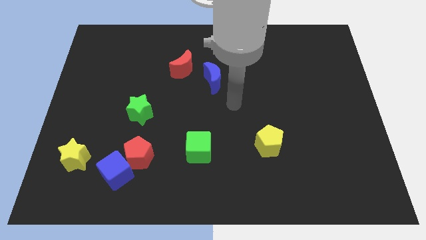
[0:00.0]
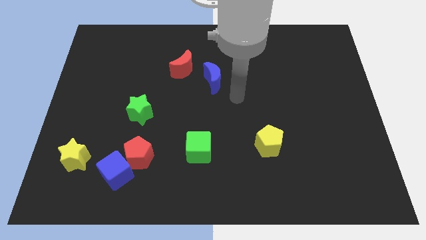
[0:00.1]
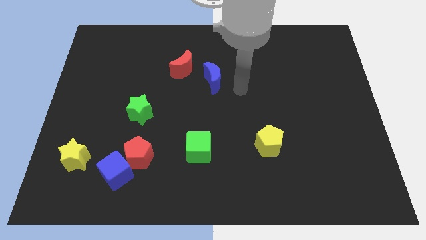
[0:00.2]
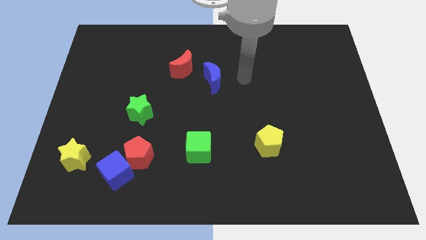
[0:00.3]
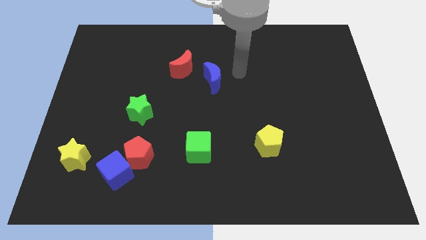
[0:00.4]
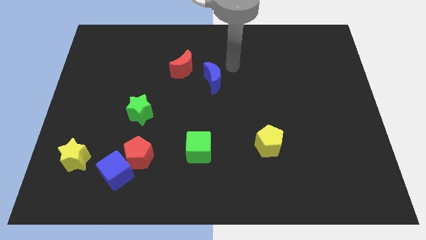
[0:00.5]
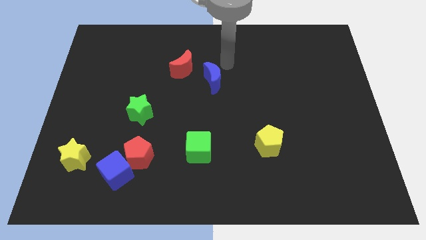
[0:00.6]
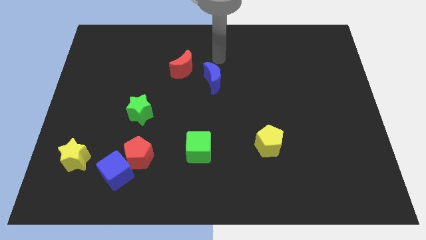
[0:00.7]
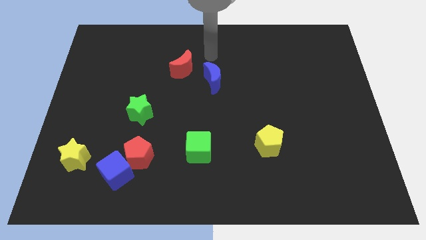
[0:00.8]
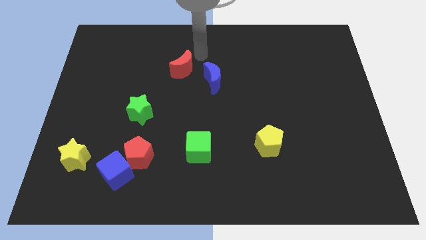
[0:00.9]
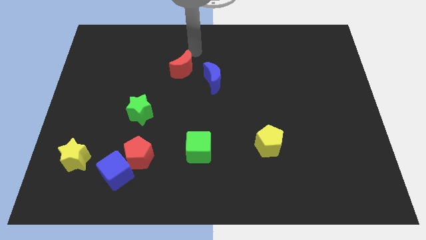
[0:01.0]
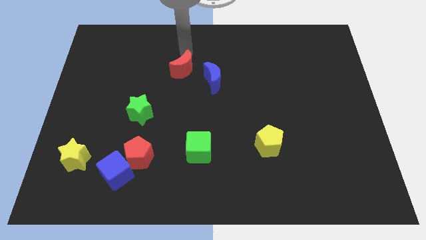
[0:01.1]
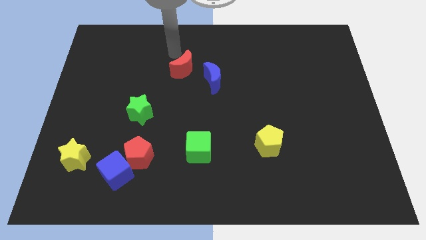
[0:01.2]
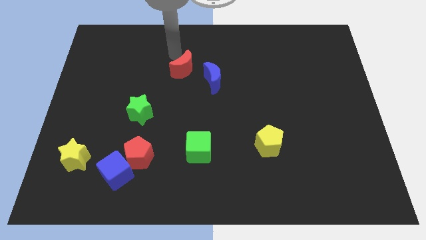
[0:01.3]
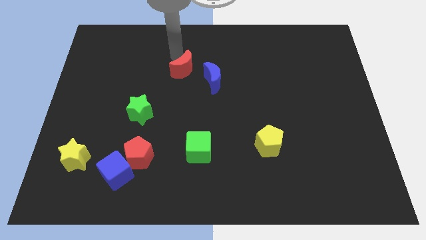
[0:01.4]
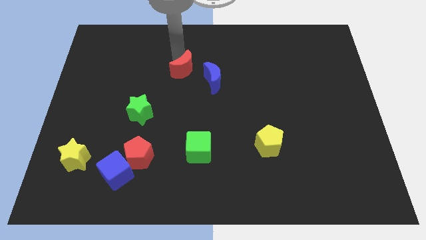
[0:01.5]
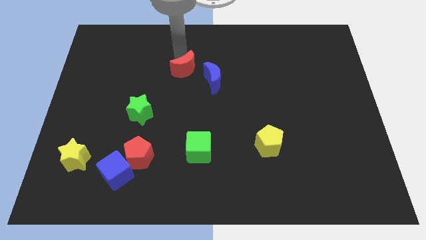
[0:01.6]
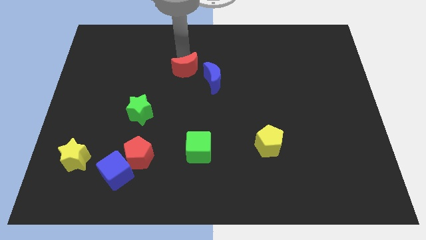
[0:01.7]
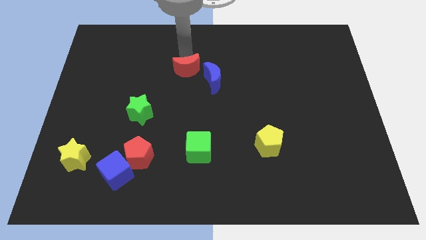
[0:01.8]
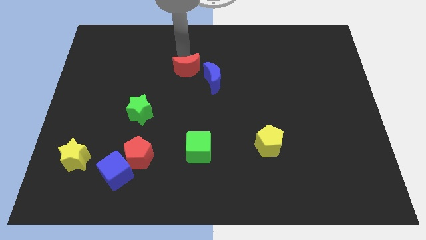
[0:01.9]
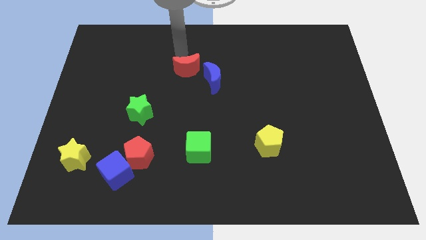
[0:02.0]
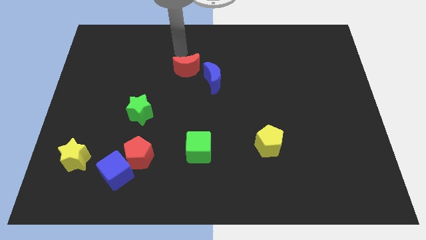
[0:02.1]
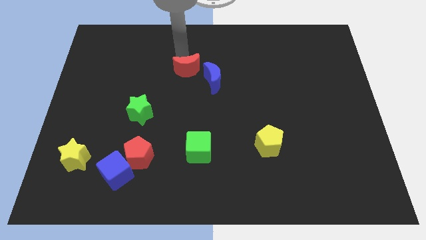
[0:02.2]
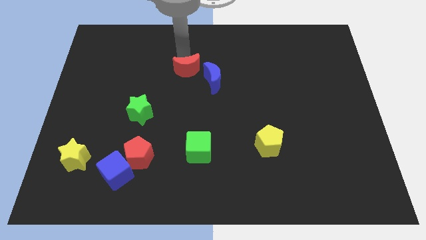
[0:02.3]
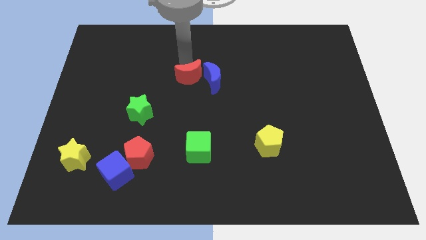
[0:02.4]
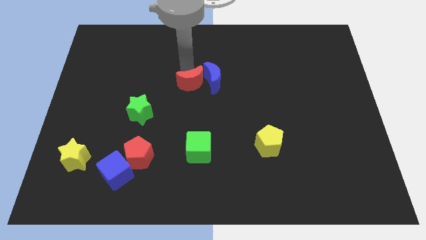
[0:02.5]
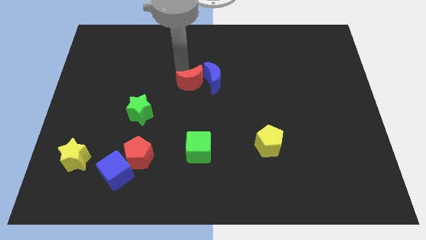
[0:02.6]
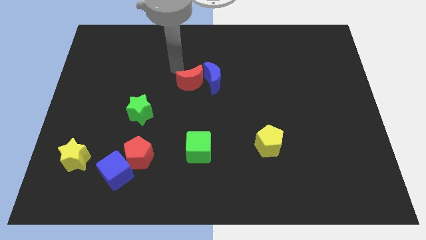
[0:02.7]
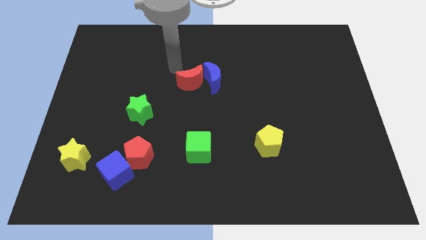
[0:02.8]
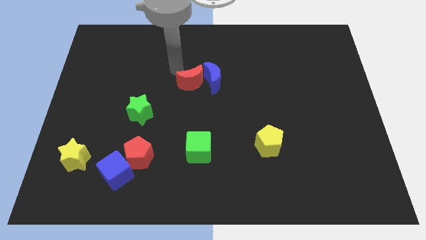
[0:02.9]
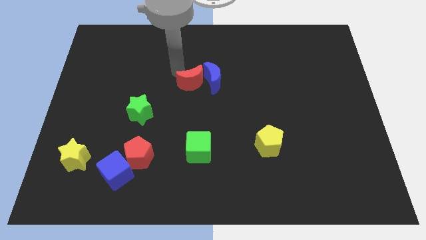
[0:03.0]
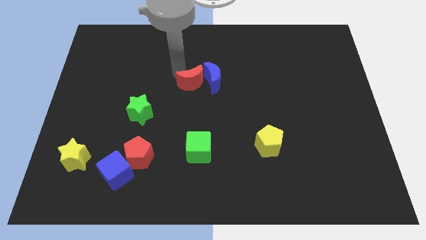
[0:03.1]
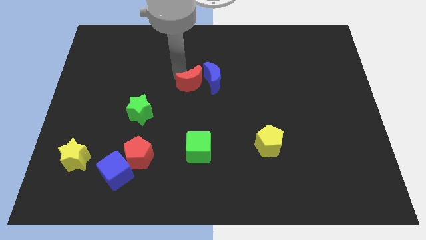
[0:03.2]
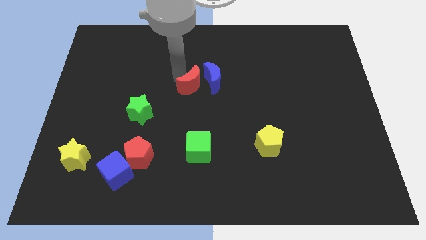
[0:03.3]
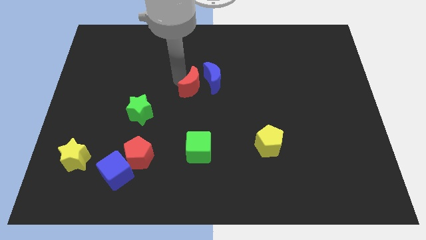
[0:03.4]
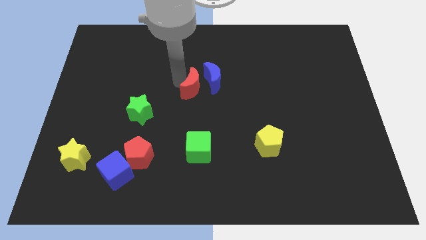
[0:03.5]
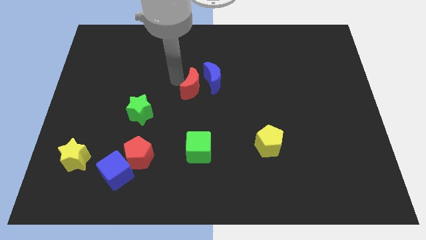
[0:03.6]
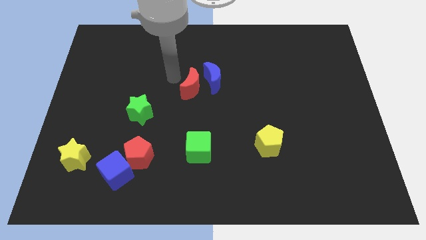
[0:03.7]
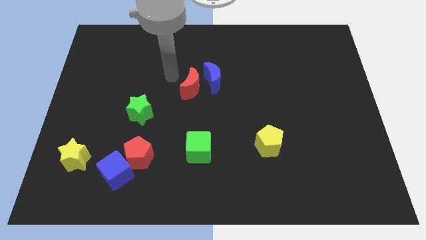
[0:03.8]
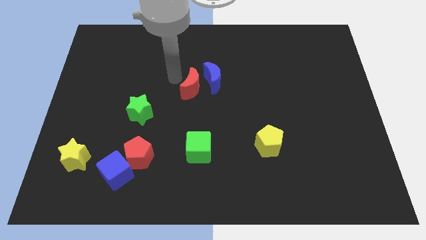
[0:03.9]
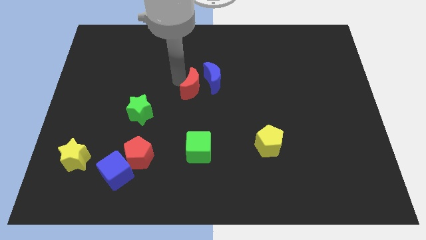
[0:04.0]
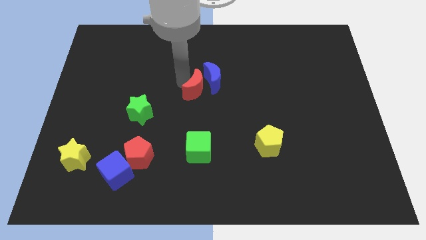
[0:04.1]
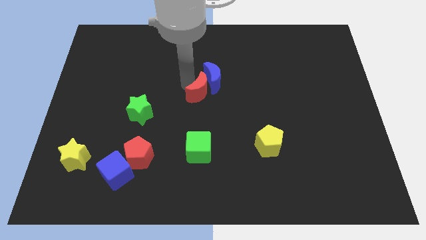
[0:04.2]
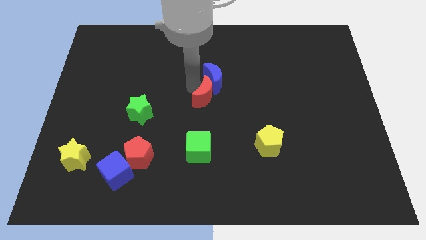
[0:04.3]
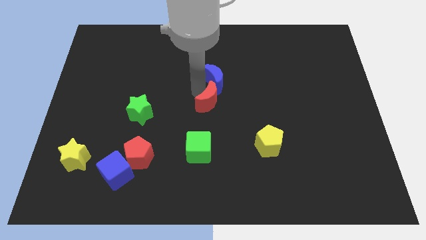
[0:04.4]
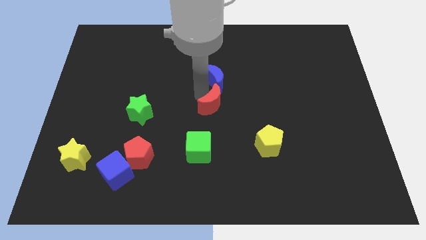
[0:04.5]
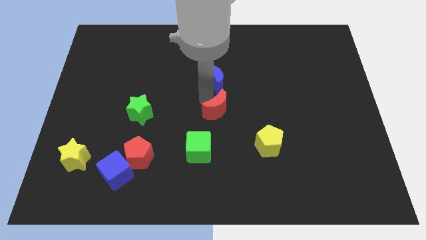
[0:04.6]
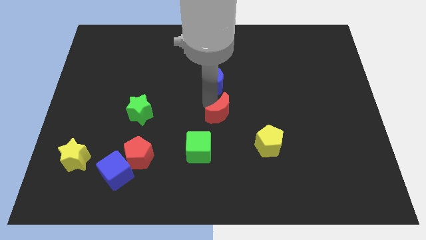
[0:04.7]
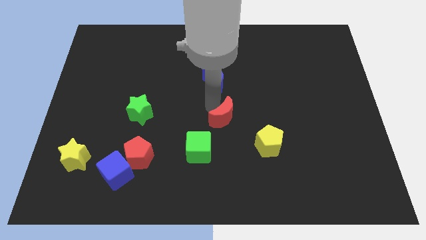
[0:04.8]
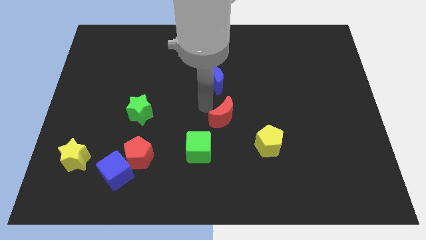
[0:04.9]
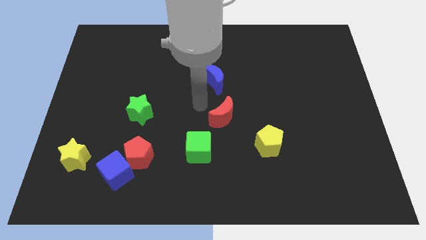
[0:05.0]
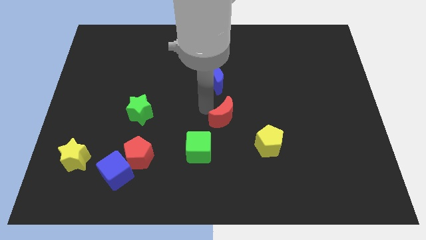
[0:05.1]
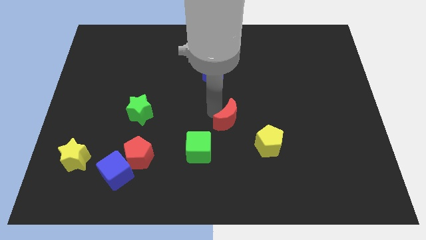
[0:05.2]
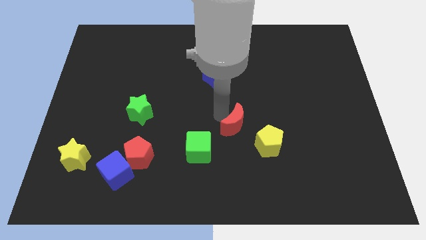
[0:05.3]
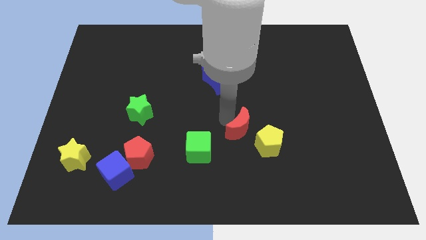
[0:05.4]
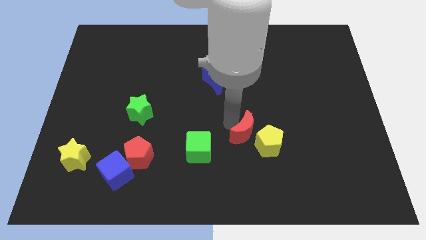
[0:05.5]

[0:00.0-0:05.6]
push the red moon next to the yellow pentagon

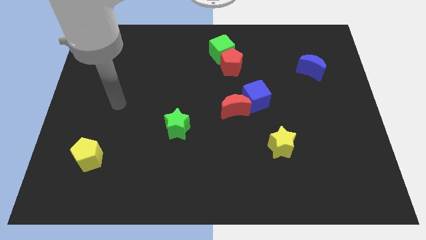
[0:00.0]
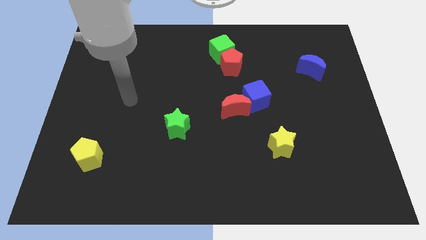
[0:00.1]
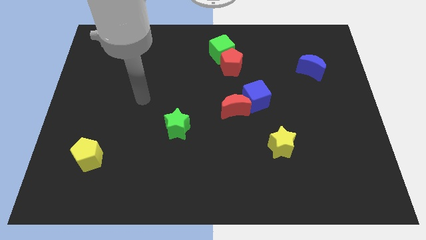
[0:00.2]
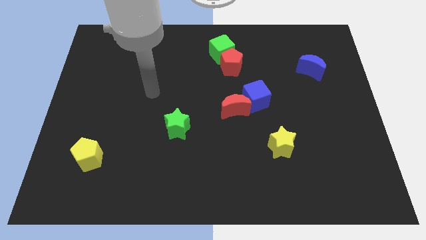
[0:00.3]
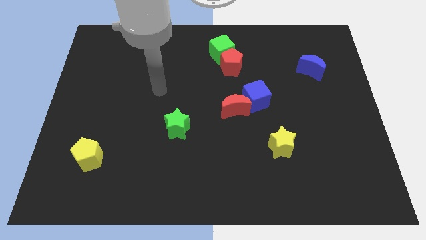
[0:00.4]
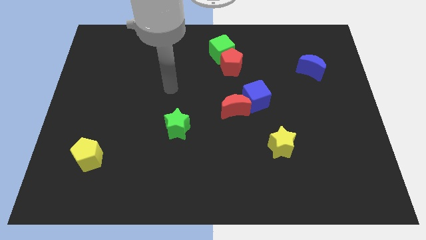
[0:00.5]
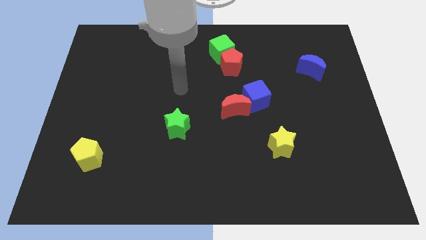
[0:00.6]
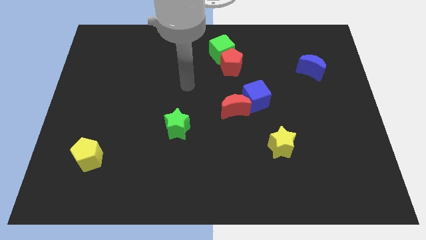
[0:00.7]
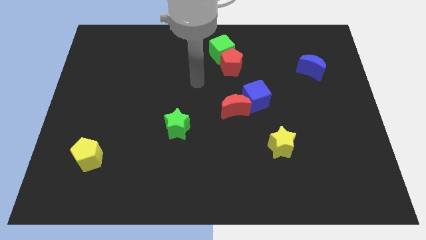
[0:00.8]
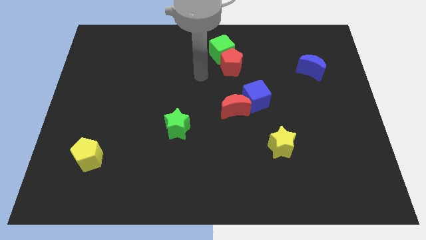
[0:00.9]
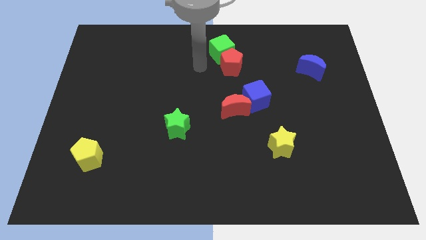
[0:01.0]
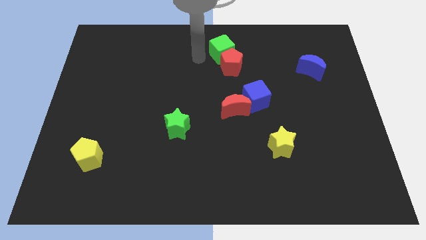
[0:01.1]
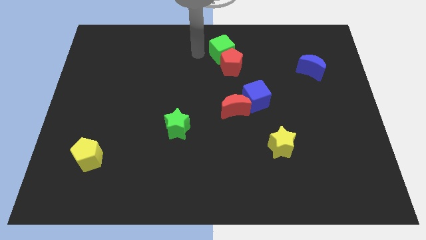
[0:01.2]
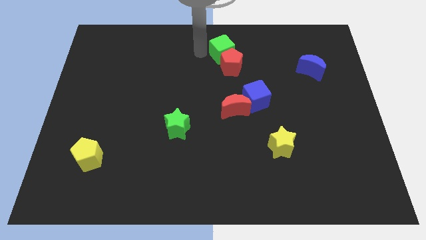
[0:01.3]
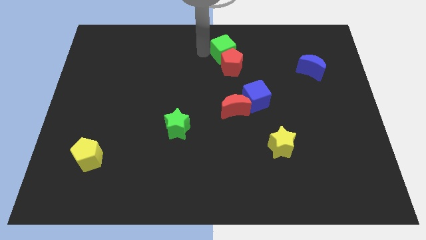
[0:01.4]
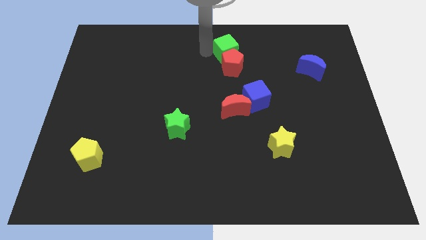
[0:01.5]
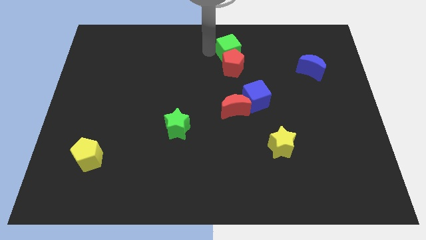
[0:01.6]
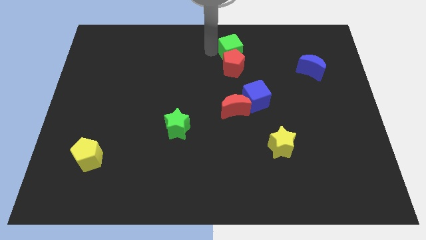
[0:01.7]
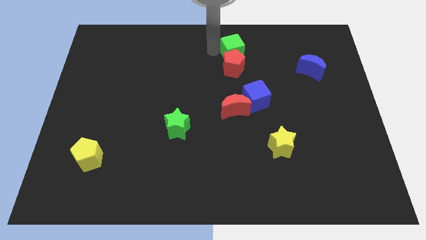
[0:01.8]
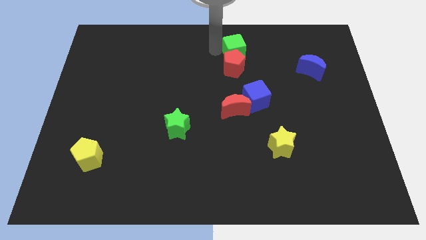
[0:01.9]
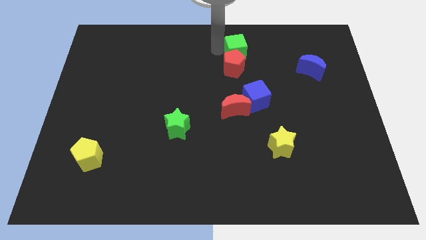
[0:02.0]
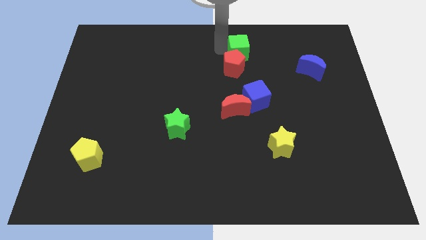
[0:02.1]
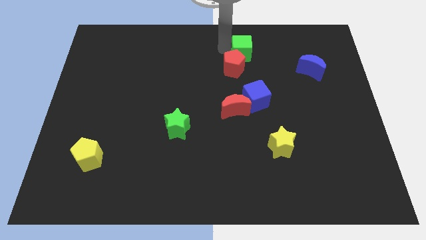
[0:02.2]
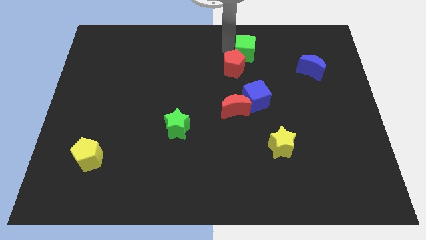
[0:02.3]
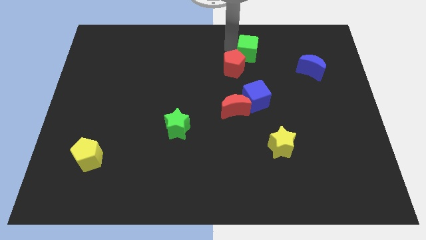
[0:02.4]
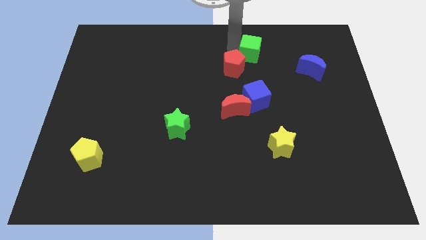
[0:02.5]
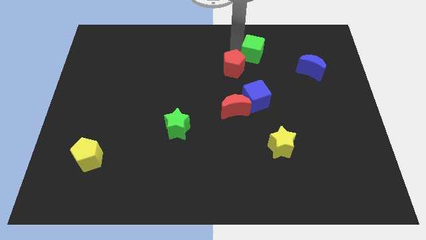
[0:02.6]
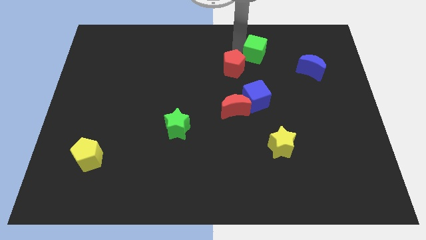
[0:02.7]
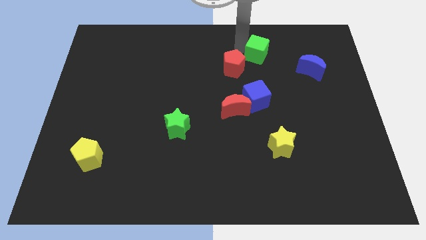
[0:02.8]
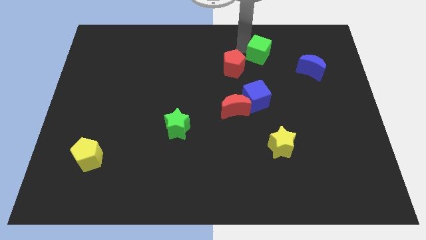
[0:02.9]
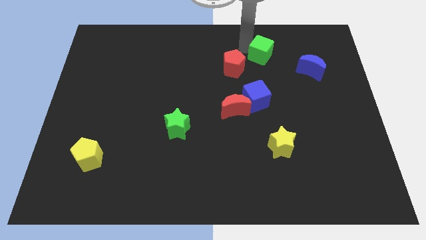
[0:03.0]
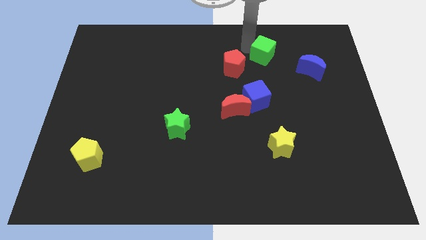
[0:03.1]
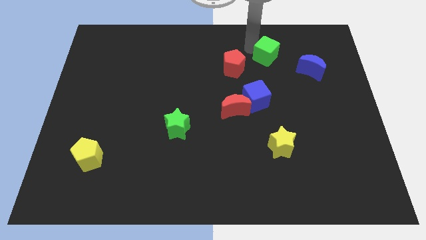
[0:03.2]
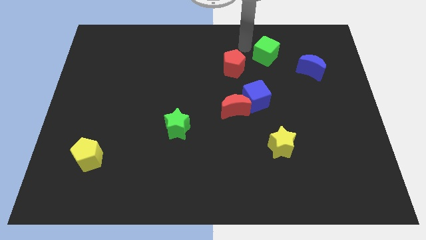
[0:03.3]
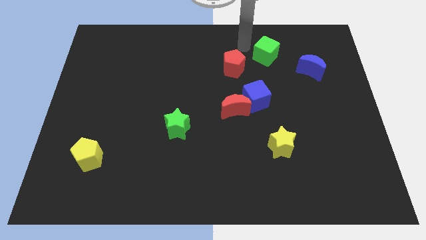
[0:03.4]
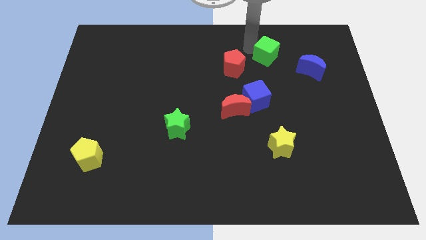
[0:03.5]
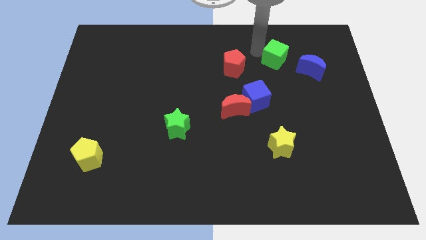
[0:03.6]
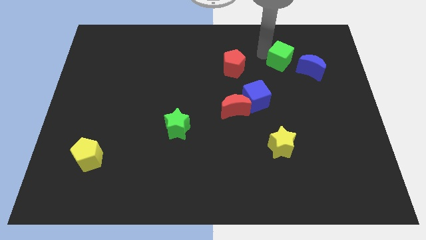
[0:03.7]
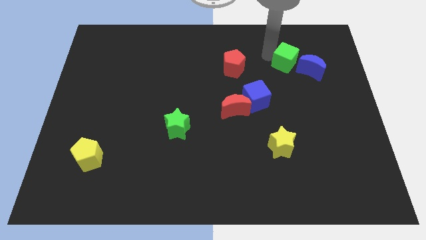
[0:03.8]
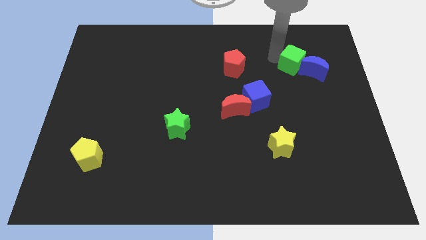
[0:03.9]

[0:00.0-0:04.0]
move the green cube close to the blue moon
